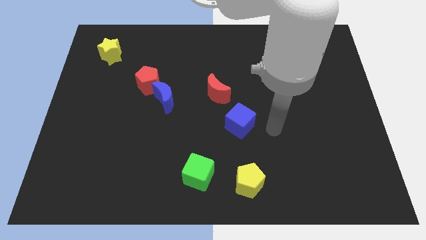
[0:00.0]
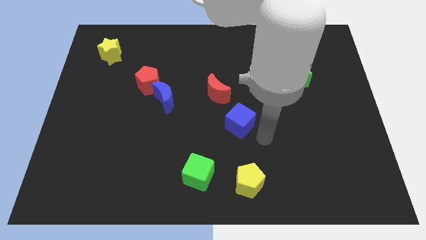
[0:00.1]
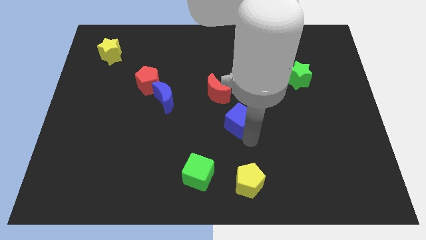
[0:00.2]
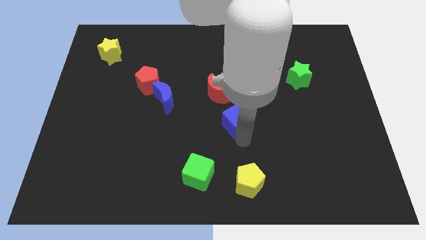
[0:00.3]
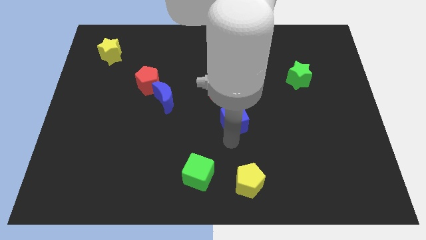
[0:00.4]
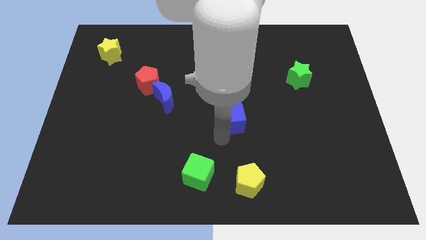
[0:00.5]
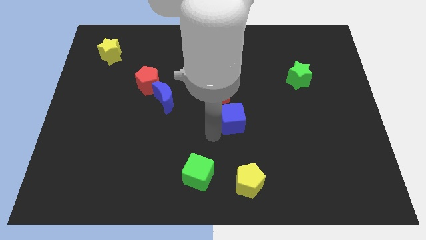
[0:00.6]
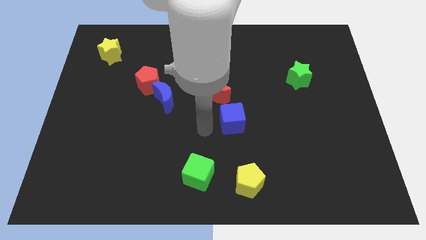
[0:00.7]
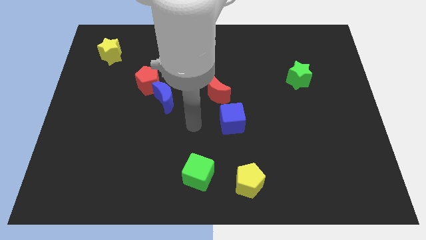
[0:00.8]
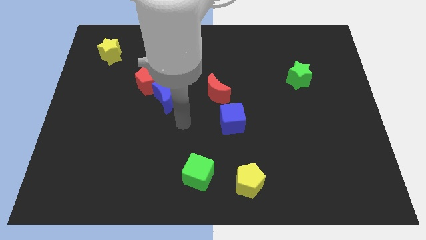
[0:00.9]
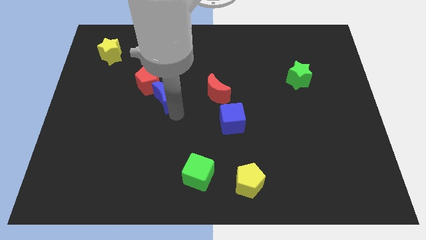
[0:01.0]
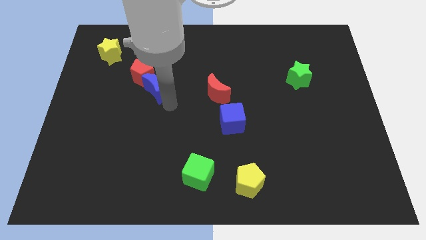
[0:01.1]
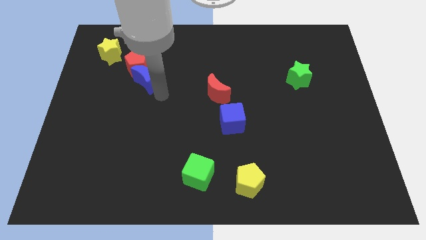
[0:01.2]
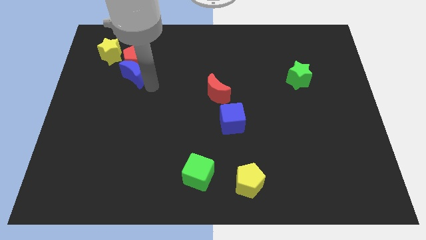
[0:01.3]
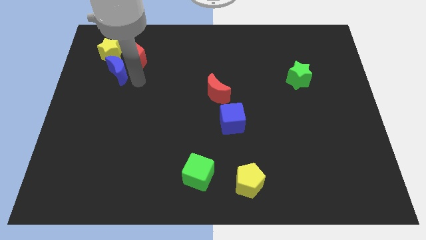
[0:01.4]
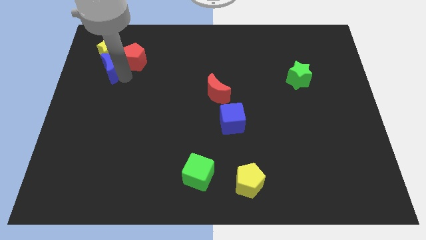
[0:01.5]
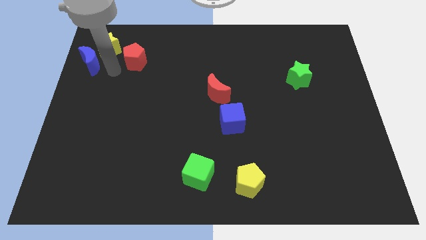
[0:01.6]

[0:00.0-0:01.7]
pull the red pentagon apart from the blue moon

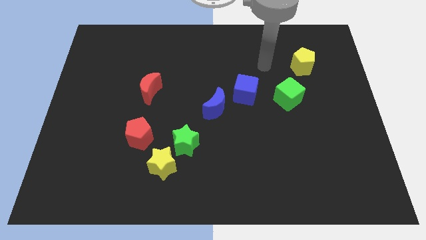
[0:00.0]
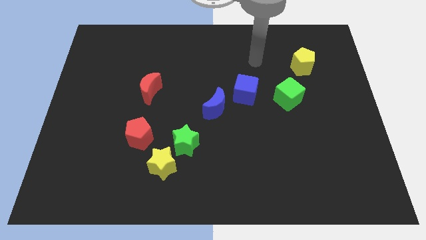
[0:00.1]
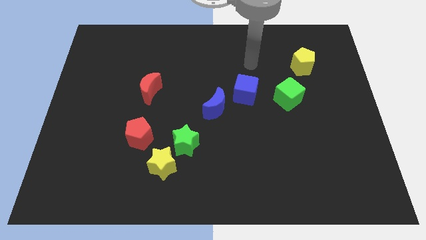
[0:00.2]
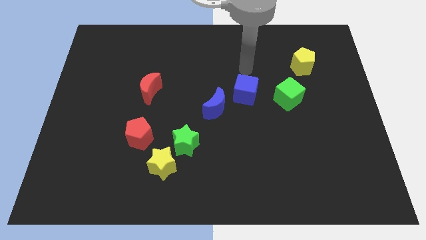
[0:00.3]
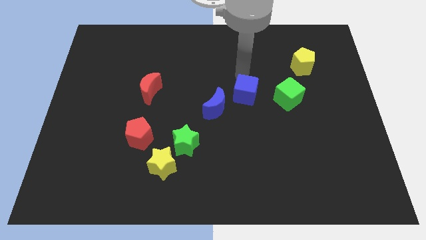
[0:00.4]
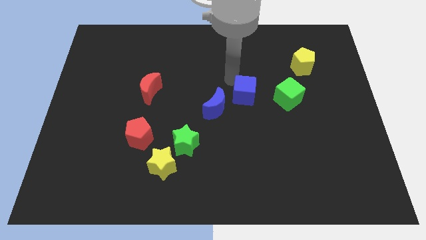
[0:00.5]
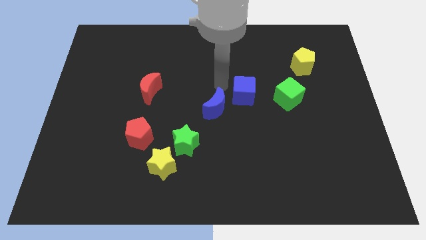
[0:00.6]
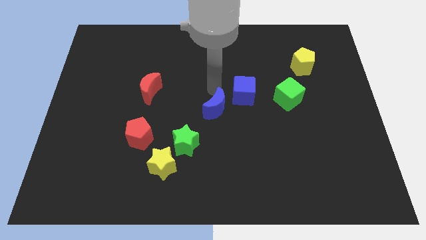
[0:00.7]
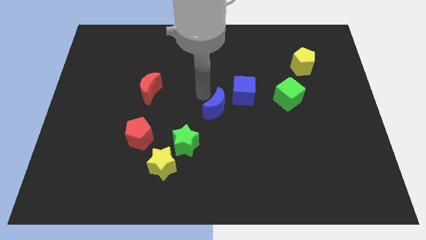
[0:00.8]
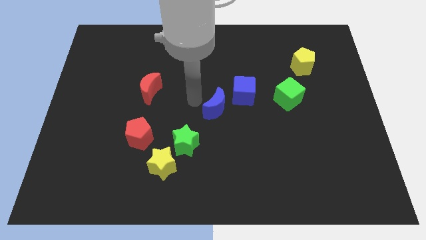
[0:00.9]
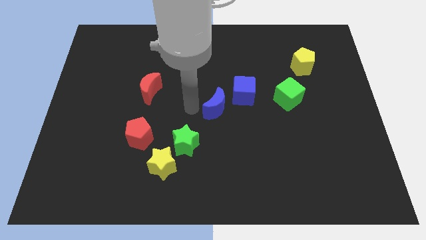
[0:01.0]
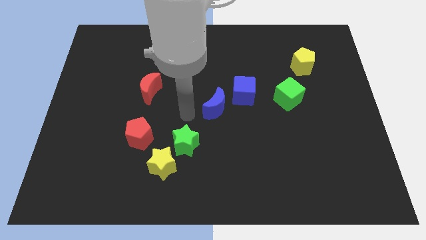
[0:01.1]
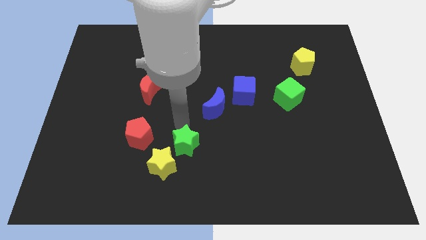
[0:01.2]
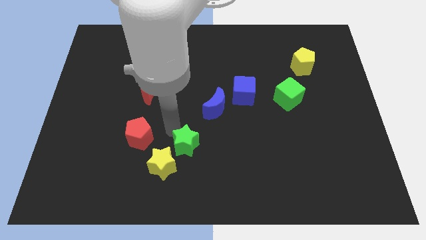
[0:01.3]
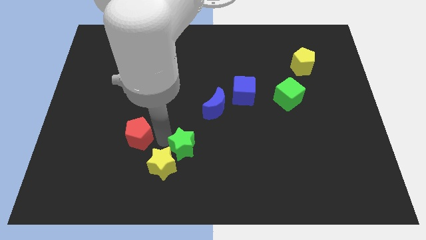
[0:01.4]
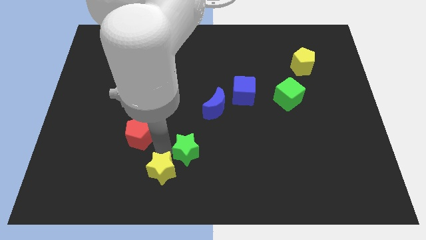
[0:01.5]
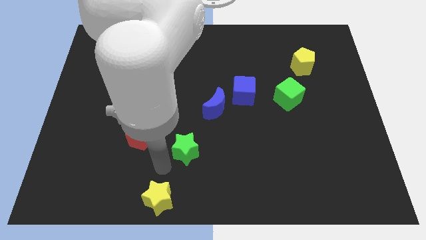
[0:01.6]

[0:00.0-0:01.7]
move the green star away from the yellow star

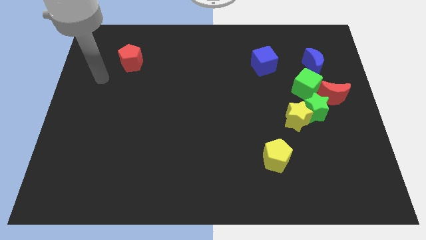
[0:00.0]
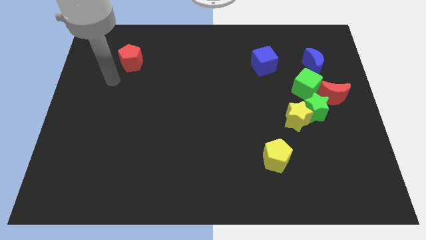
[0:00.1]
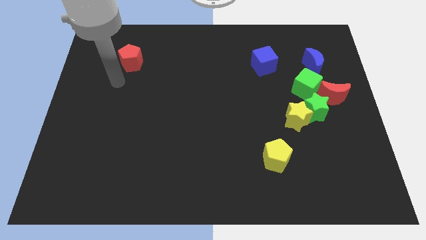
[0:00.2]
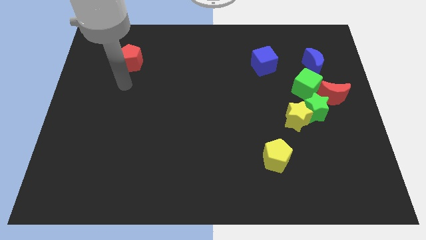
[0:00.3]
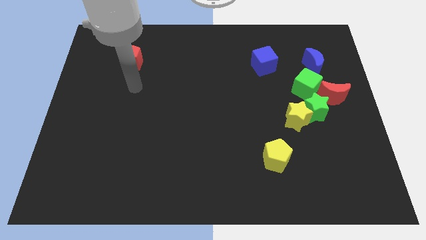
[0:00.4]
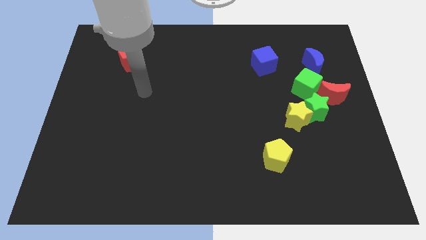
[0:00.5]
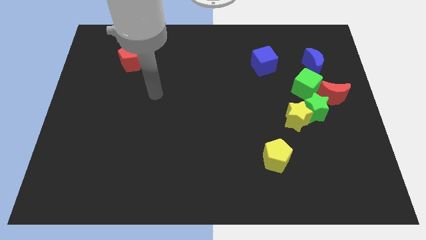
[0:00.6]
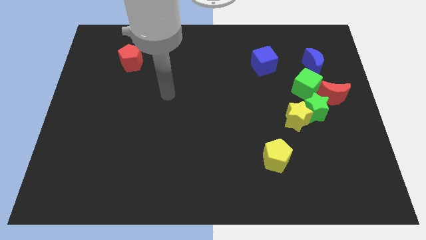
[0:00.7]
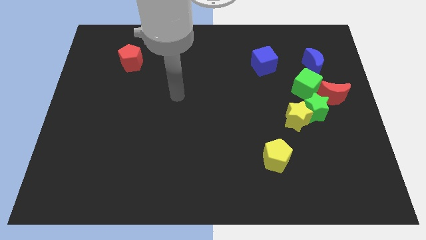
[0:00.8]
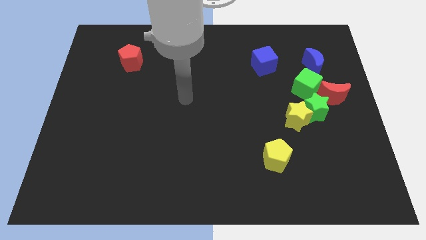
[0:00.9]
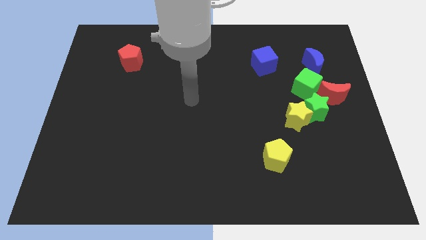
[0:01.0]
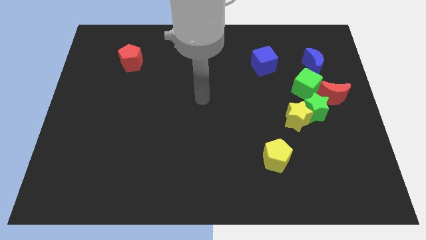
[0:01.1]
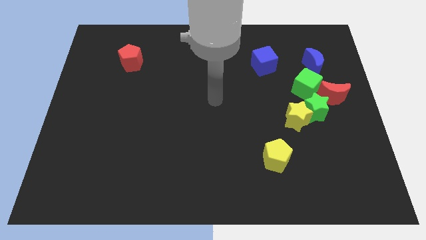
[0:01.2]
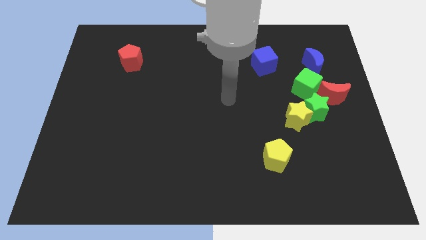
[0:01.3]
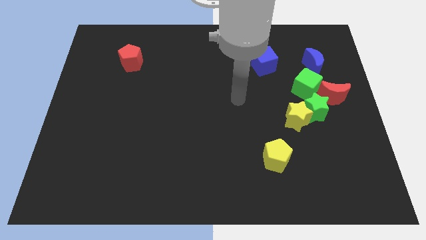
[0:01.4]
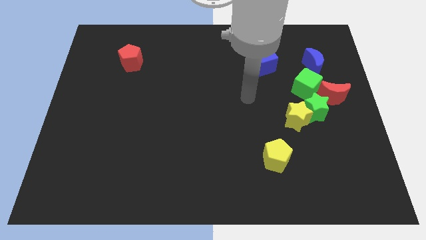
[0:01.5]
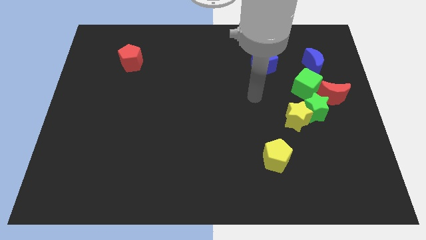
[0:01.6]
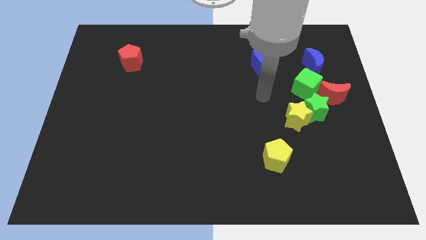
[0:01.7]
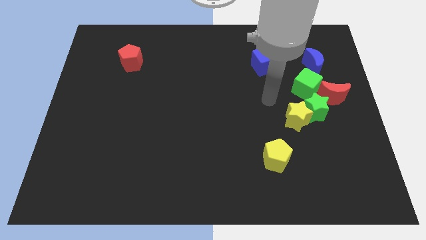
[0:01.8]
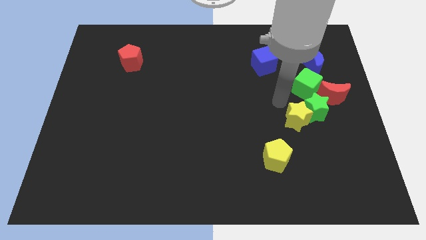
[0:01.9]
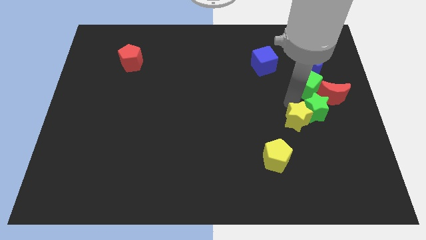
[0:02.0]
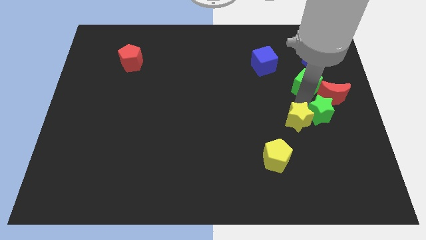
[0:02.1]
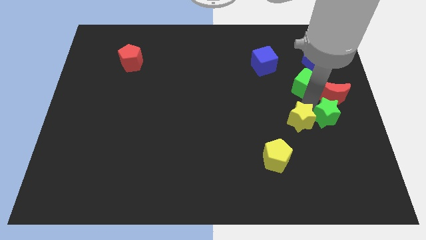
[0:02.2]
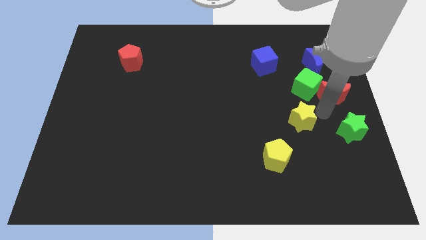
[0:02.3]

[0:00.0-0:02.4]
move the yellow star away from the green star

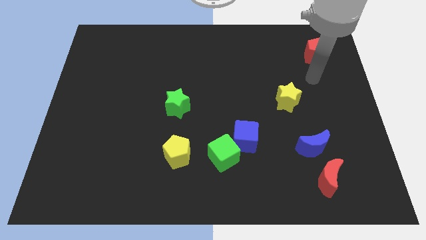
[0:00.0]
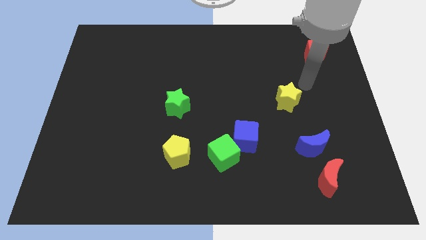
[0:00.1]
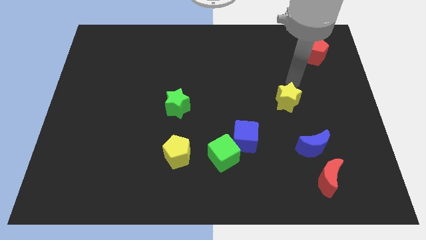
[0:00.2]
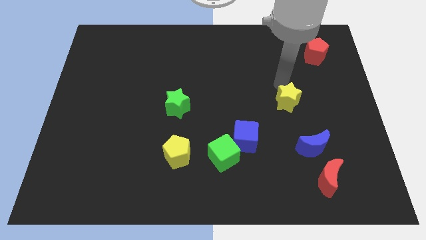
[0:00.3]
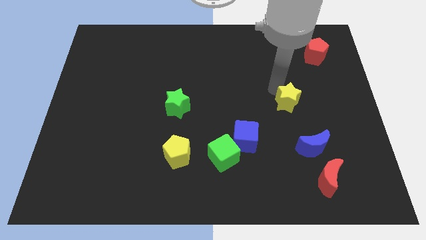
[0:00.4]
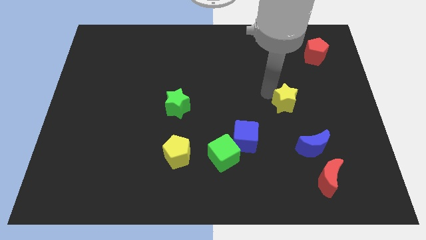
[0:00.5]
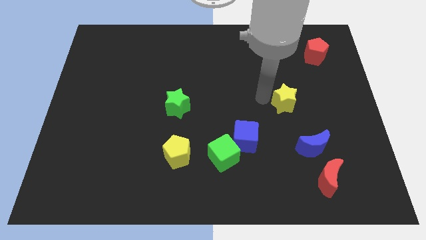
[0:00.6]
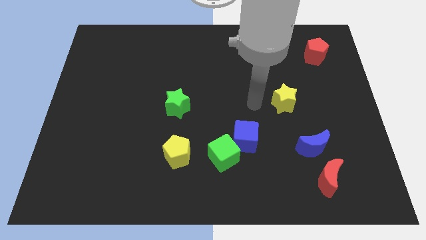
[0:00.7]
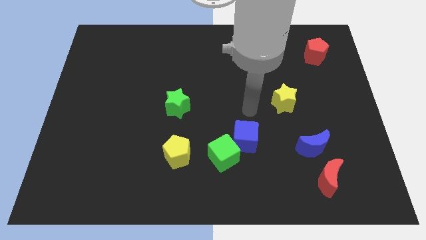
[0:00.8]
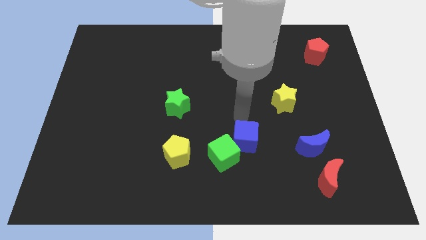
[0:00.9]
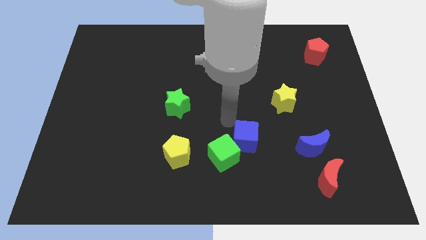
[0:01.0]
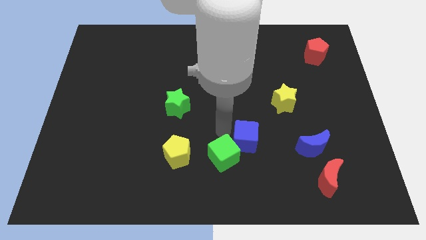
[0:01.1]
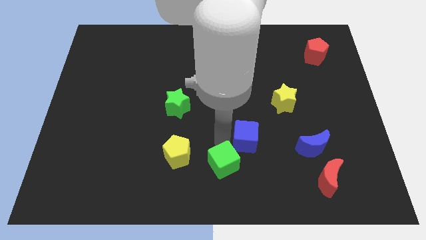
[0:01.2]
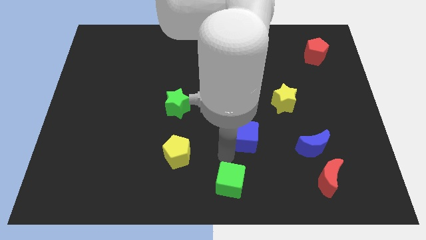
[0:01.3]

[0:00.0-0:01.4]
move the blue cube away from the green cube

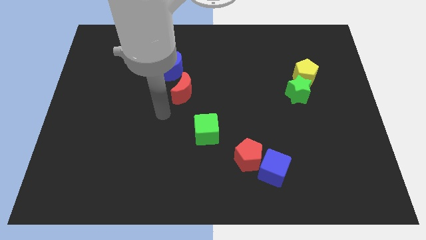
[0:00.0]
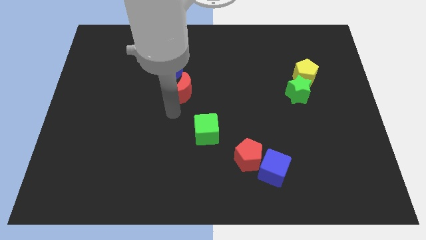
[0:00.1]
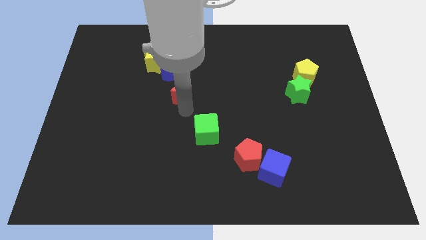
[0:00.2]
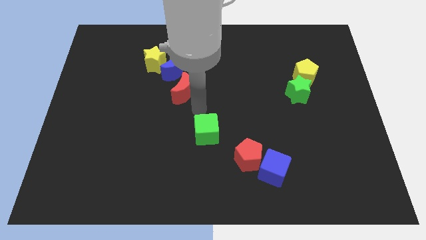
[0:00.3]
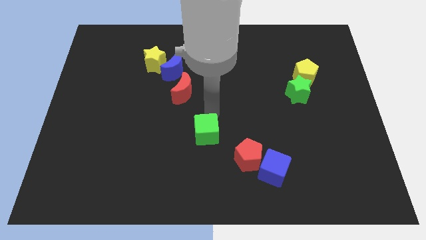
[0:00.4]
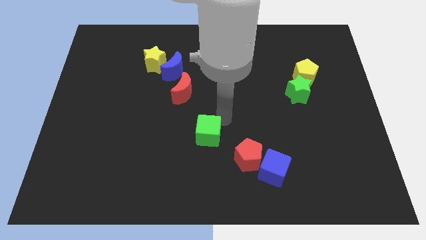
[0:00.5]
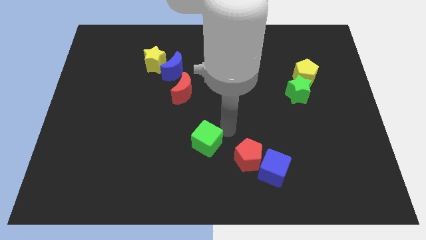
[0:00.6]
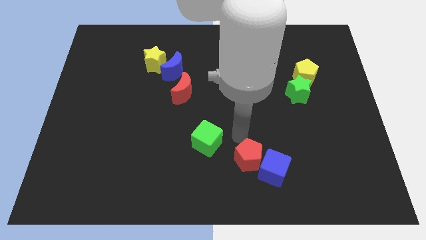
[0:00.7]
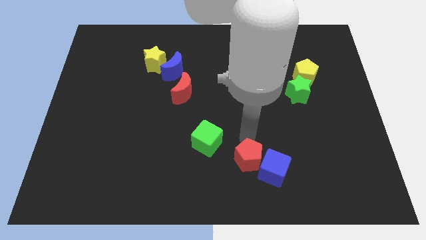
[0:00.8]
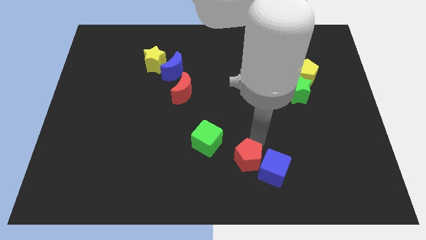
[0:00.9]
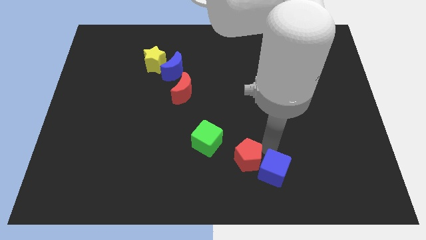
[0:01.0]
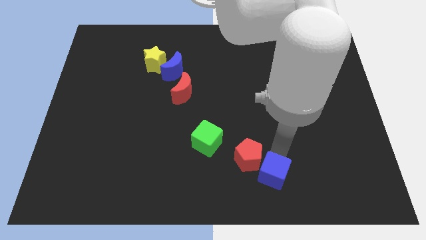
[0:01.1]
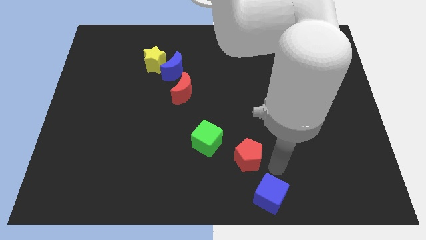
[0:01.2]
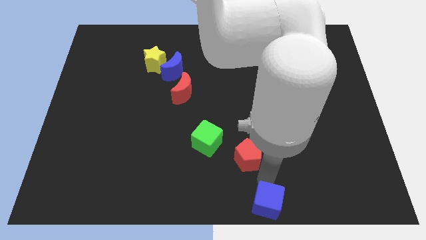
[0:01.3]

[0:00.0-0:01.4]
pull the red pentagon apart from the blue cube

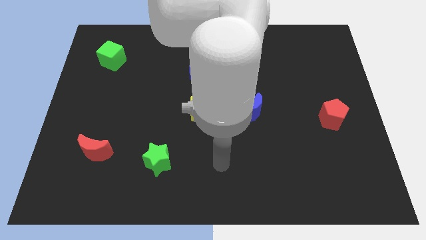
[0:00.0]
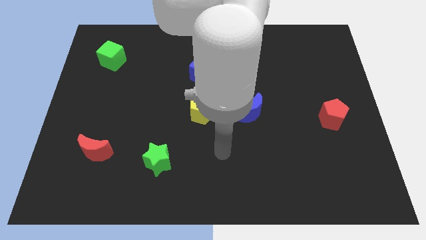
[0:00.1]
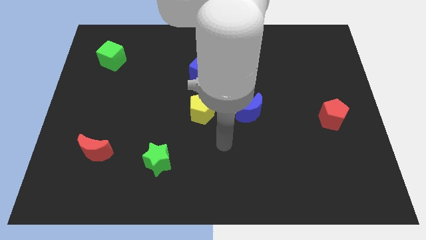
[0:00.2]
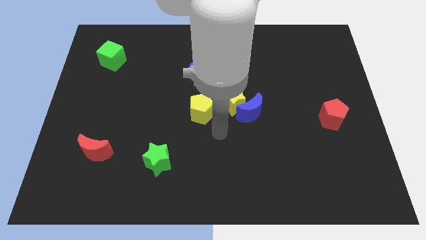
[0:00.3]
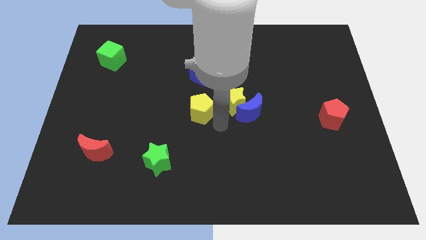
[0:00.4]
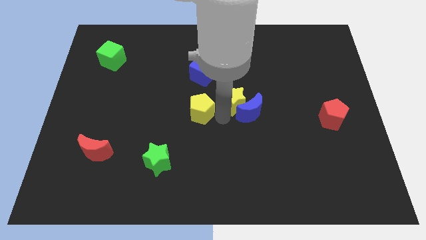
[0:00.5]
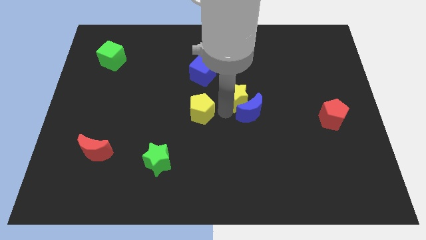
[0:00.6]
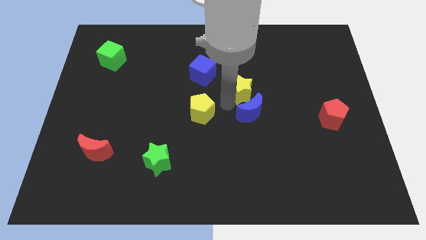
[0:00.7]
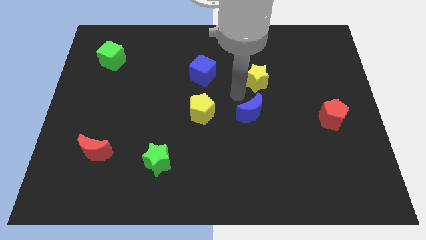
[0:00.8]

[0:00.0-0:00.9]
pull the blue moon apart from the yellow star

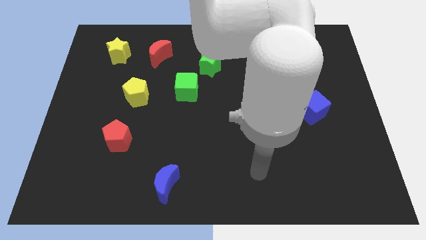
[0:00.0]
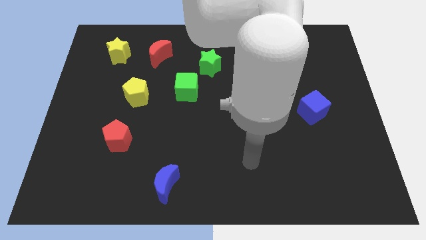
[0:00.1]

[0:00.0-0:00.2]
pull the green cube apart from the green star
